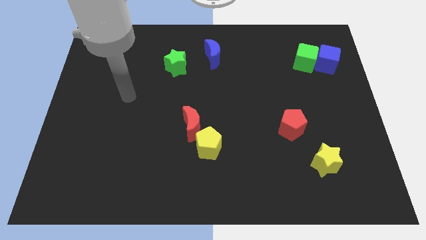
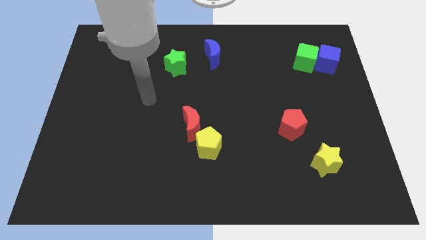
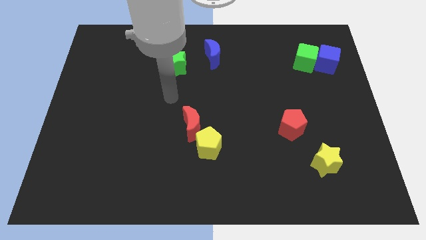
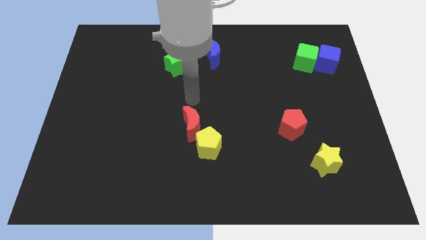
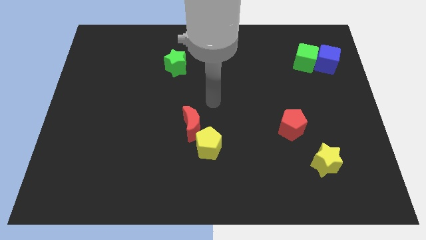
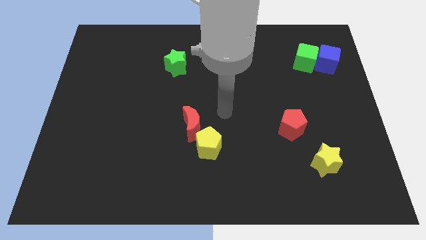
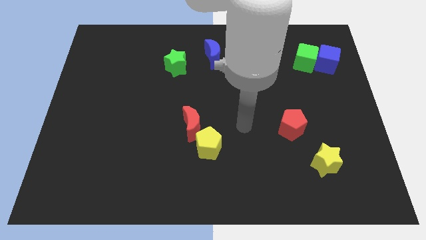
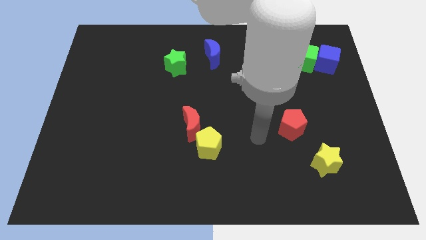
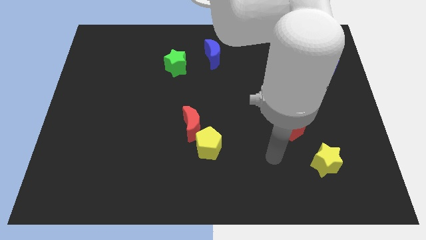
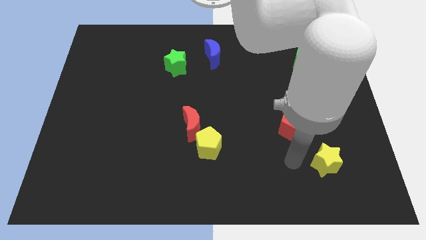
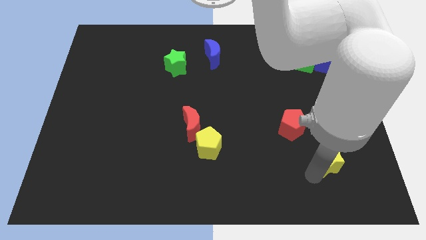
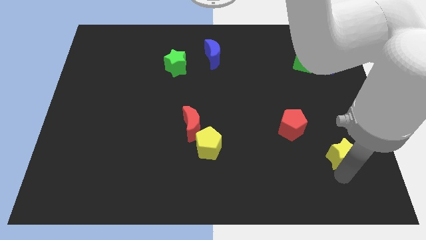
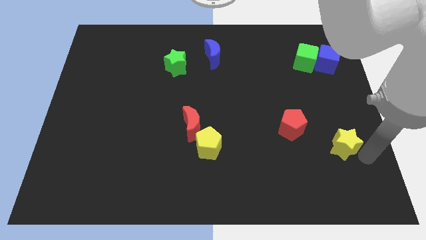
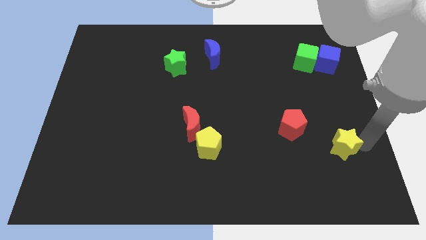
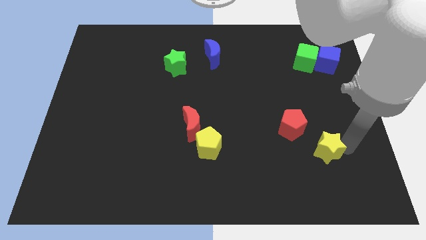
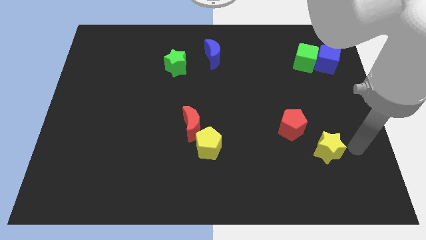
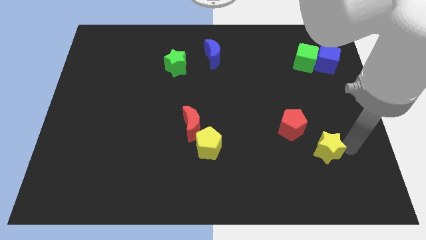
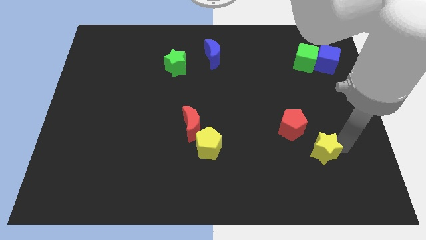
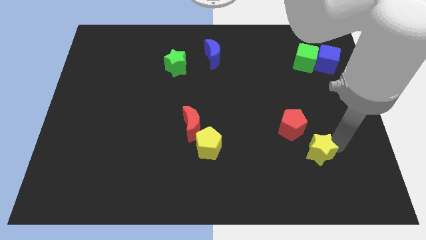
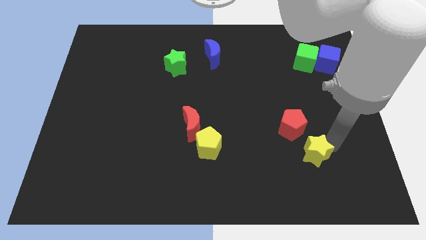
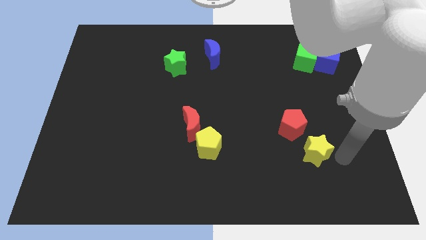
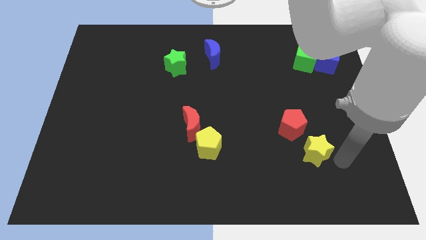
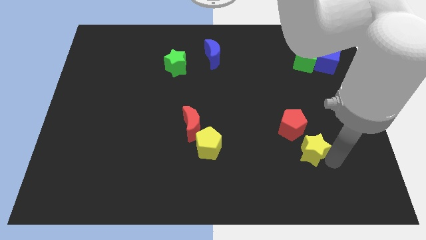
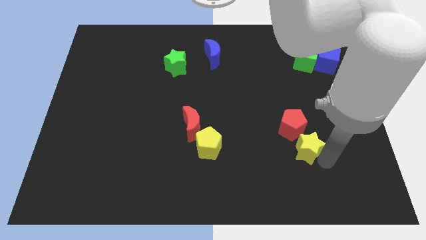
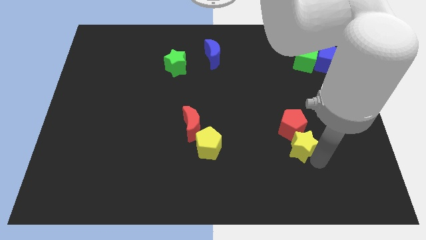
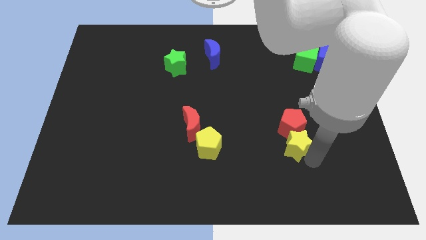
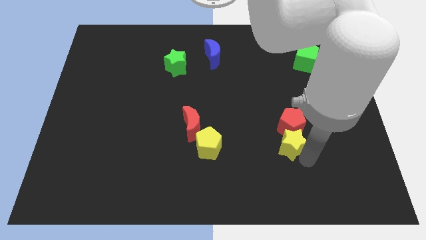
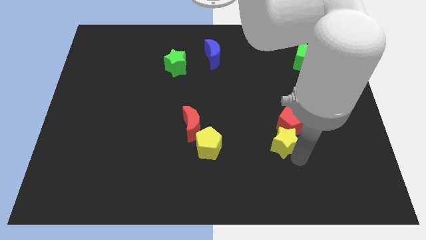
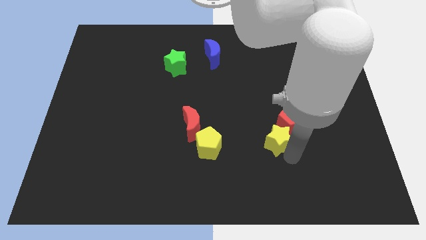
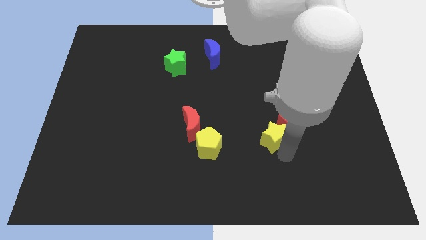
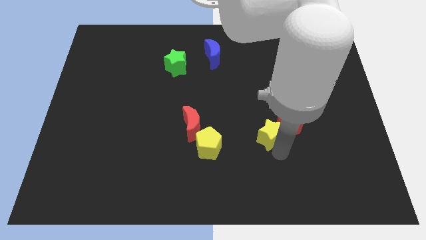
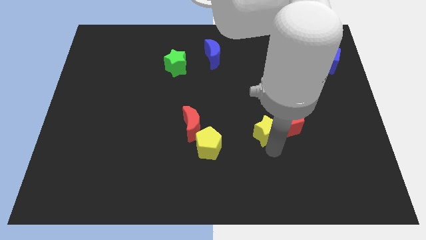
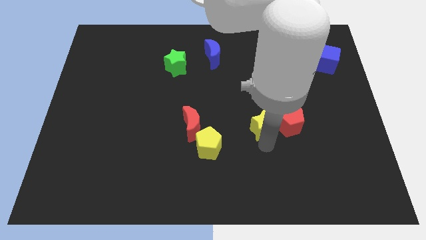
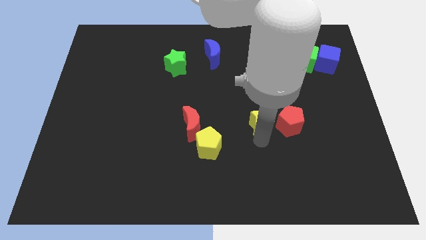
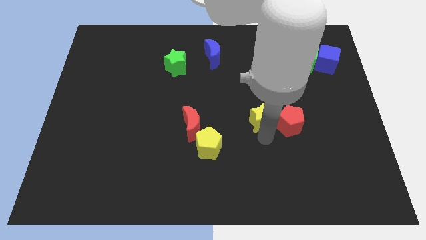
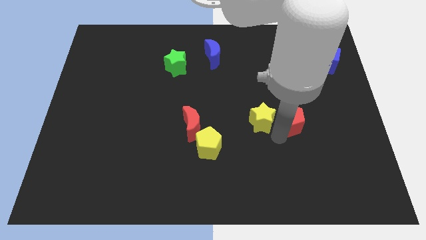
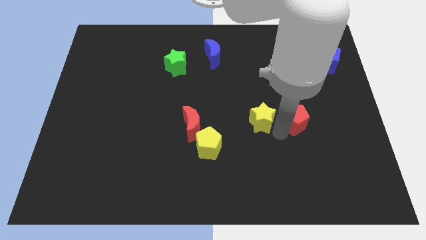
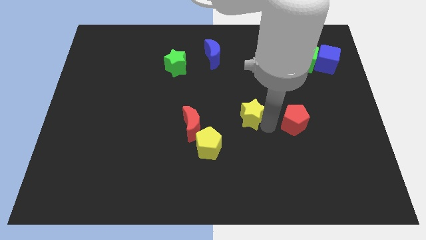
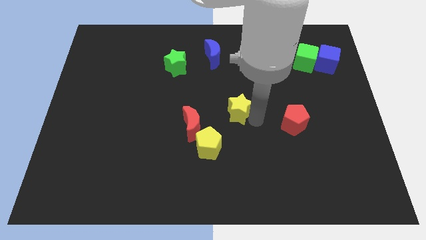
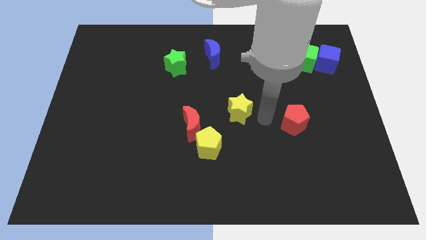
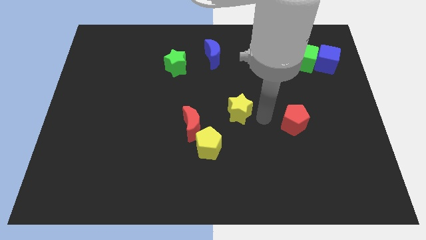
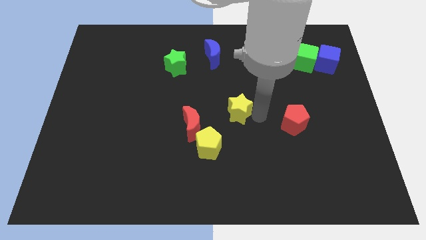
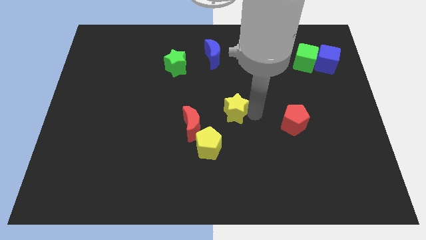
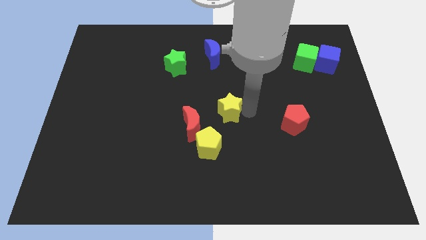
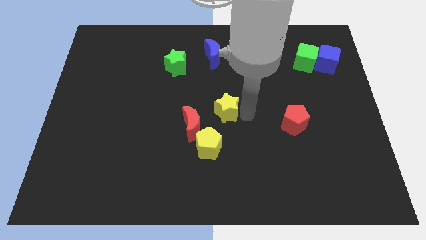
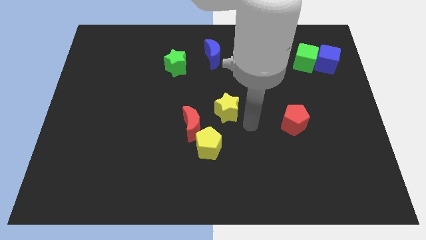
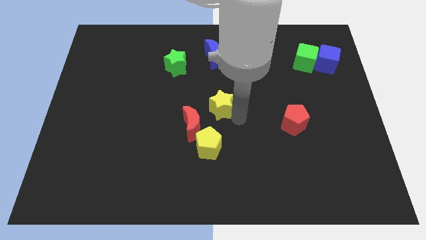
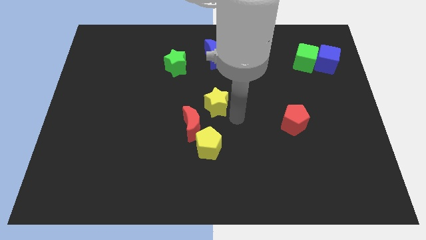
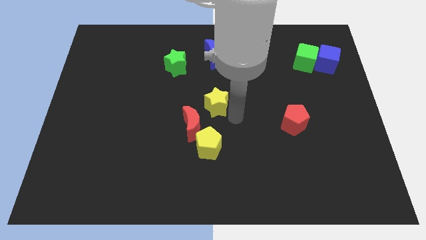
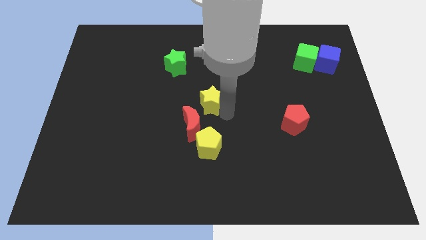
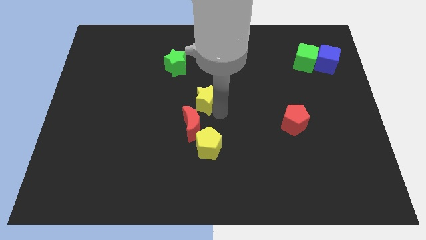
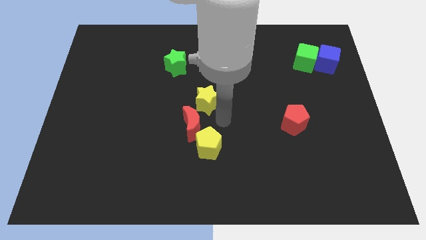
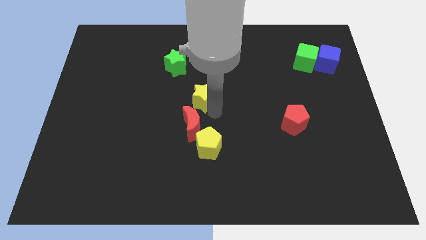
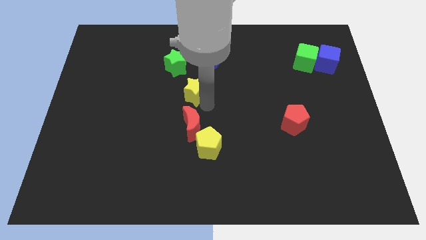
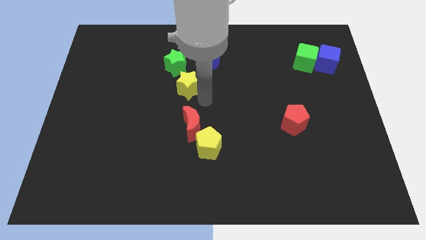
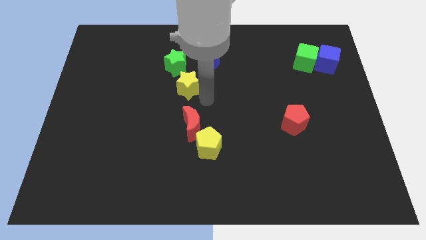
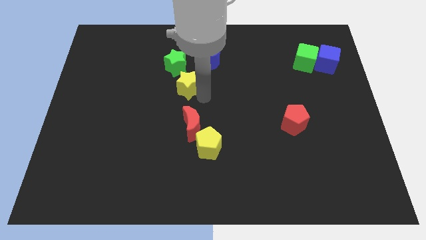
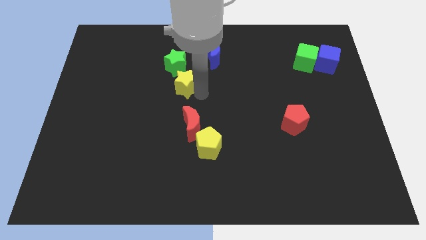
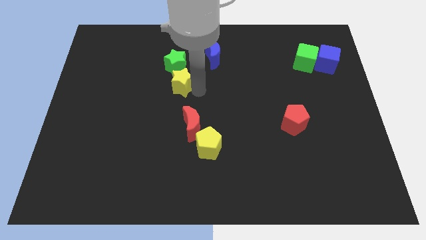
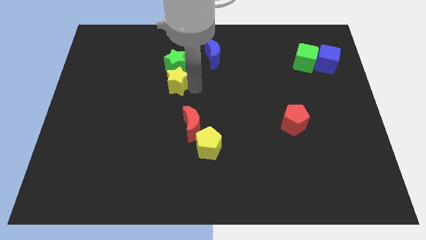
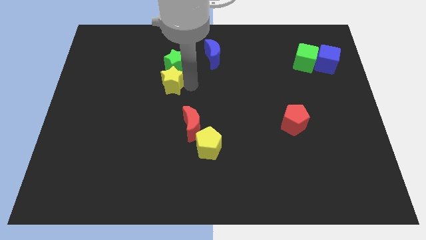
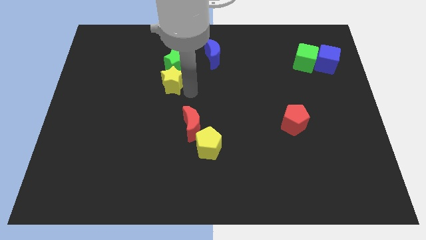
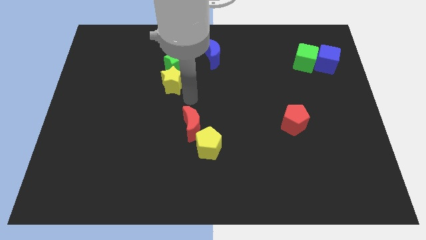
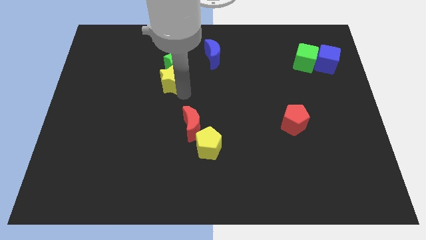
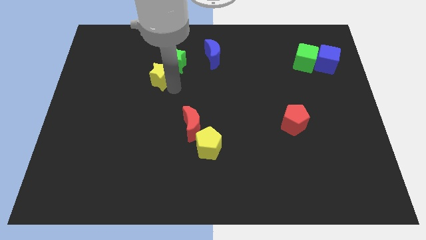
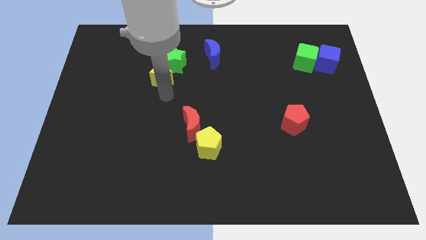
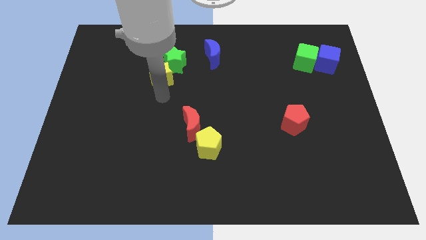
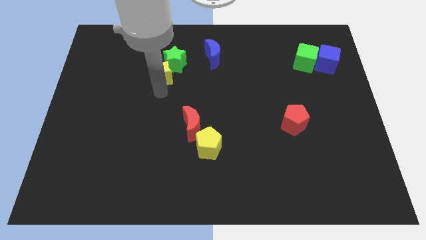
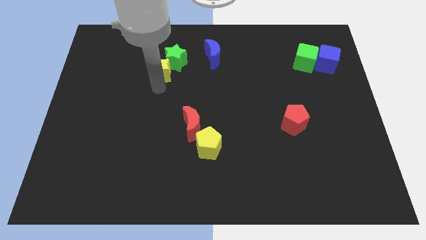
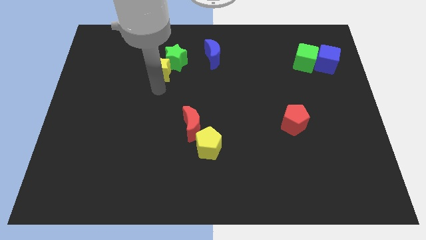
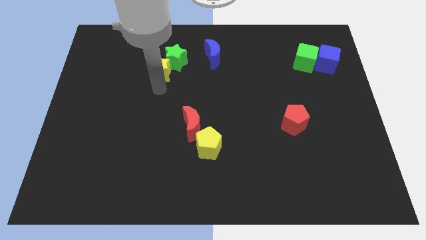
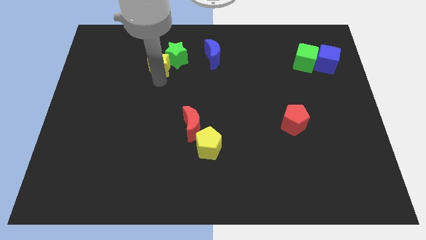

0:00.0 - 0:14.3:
move the yellow star to the left of the blue moon
